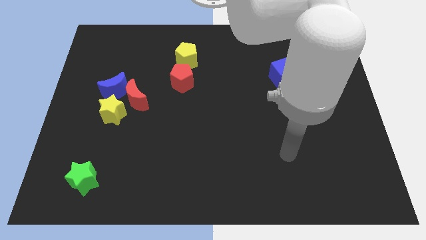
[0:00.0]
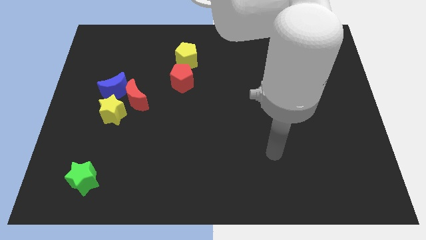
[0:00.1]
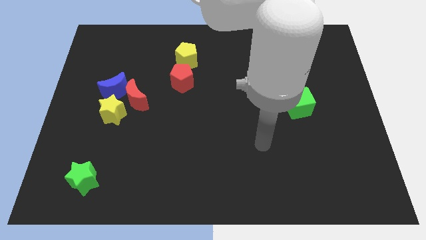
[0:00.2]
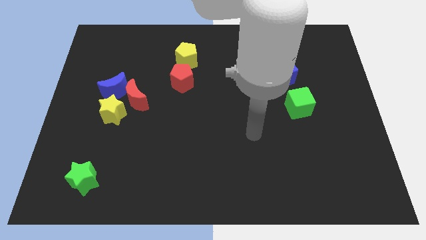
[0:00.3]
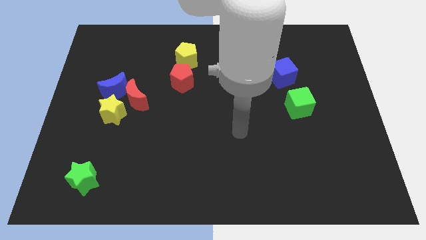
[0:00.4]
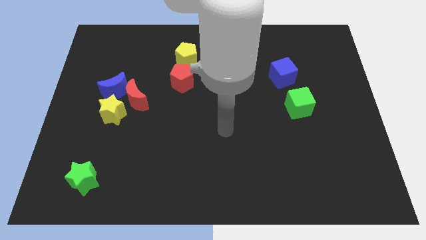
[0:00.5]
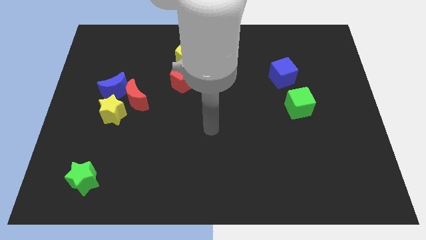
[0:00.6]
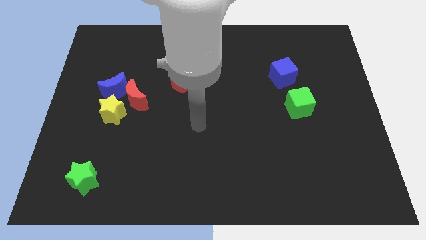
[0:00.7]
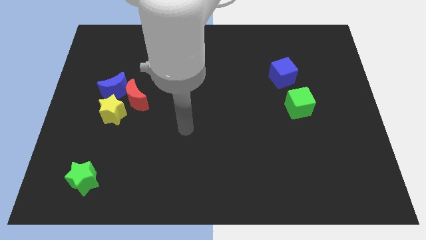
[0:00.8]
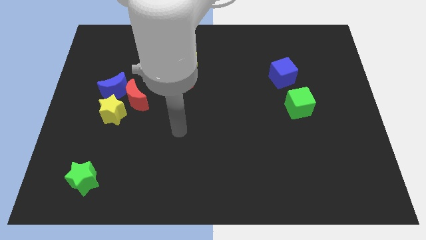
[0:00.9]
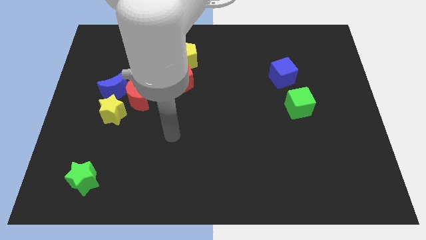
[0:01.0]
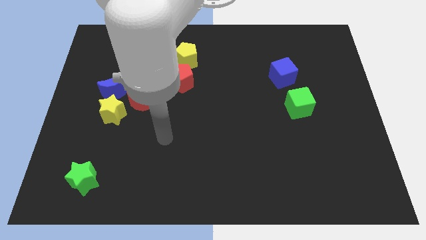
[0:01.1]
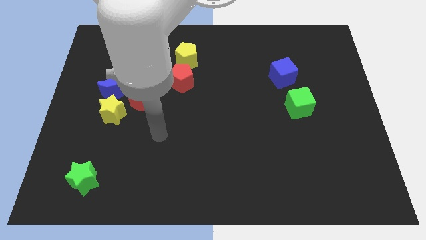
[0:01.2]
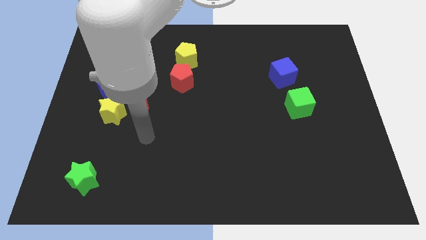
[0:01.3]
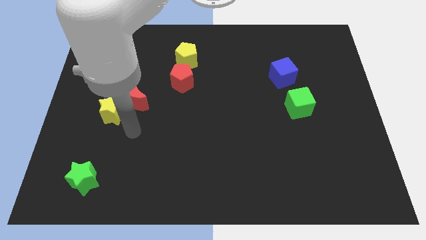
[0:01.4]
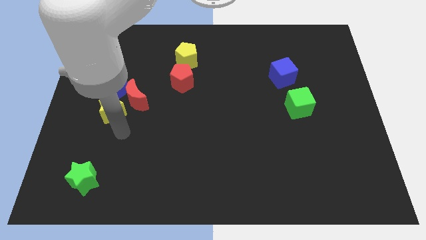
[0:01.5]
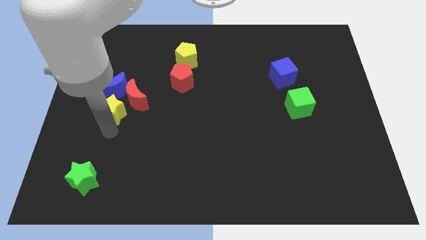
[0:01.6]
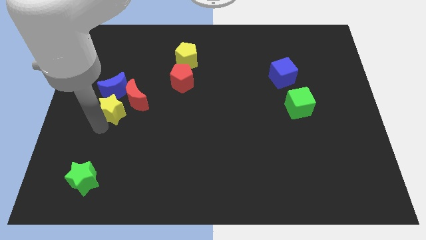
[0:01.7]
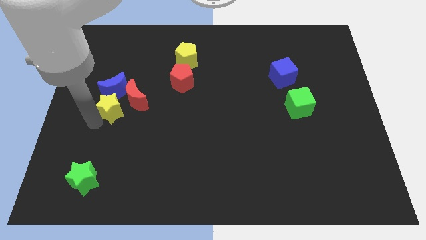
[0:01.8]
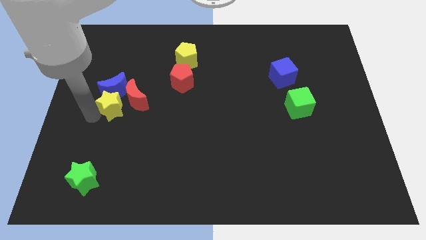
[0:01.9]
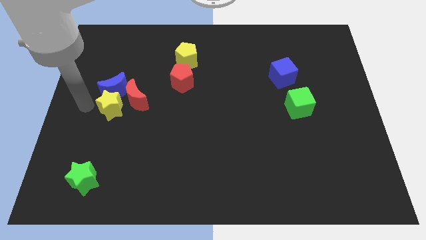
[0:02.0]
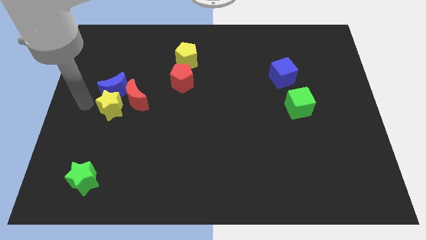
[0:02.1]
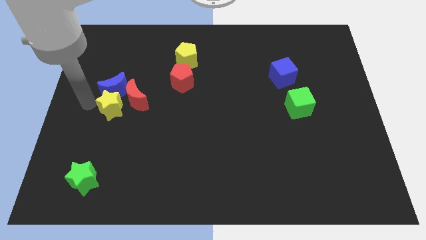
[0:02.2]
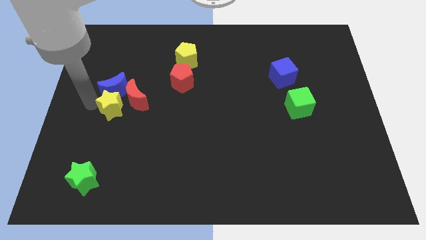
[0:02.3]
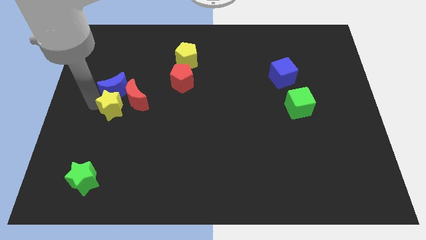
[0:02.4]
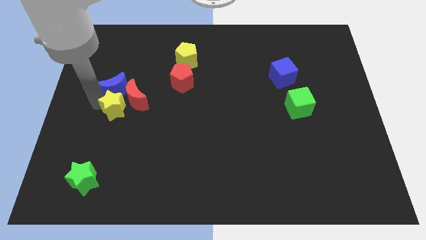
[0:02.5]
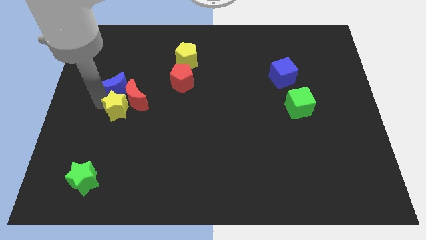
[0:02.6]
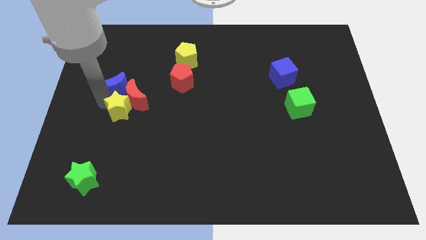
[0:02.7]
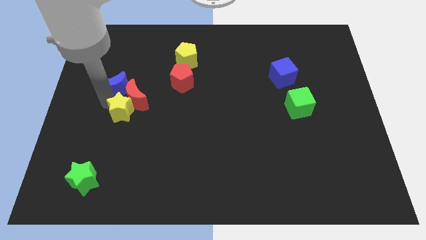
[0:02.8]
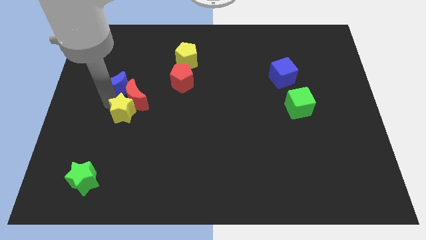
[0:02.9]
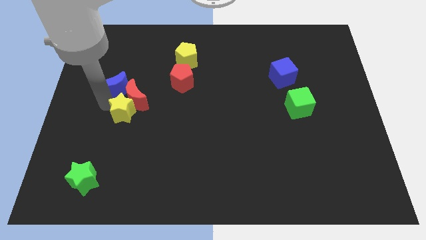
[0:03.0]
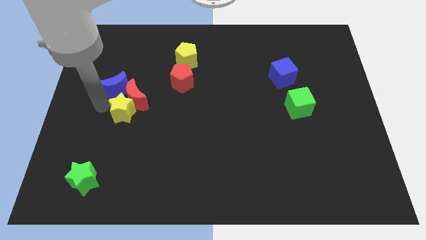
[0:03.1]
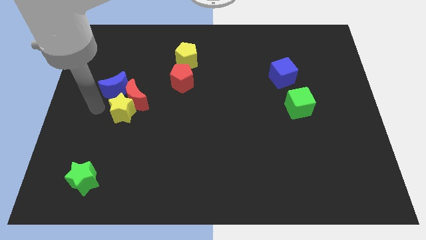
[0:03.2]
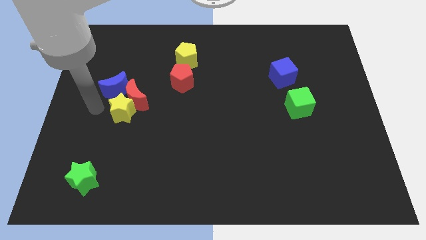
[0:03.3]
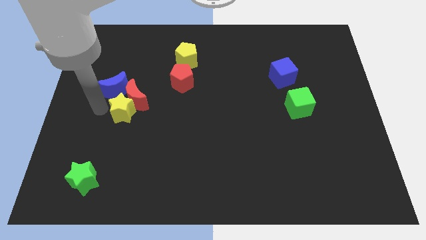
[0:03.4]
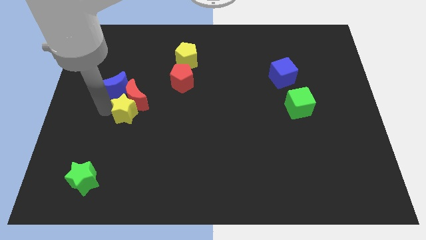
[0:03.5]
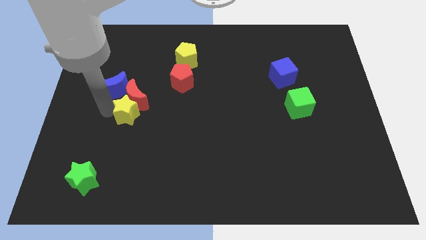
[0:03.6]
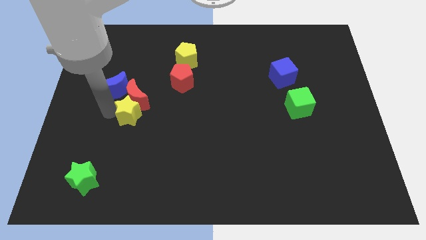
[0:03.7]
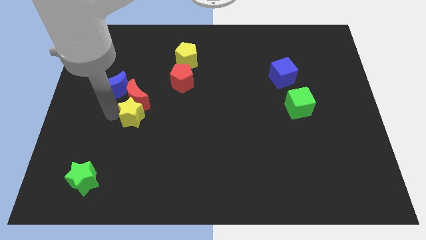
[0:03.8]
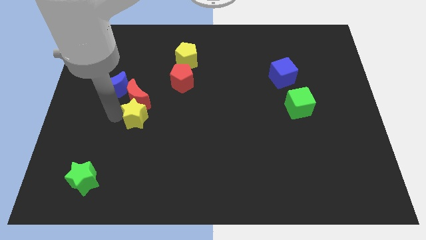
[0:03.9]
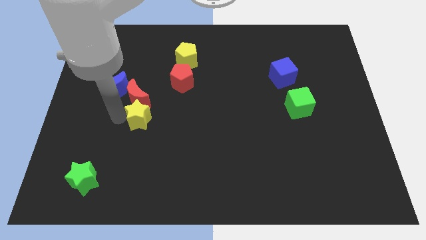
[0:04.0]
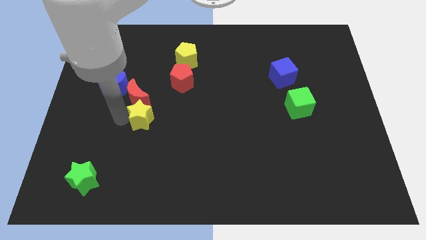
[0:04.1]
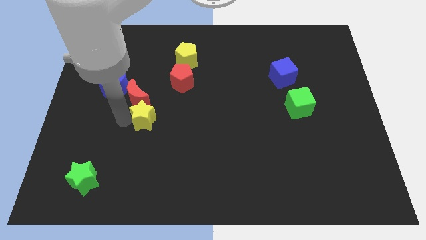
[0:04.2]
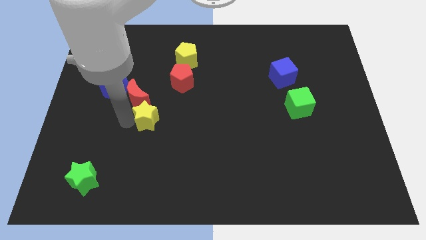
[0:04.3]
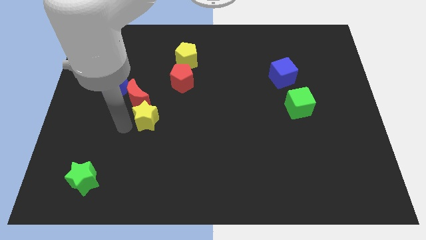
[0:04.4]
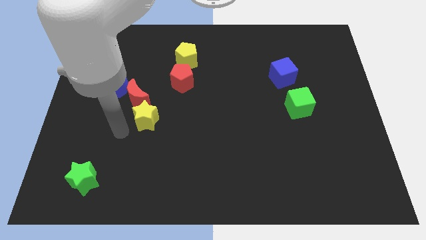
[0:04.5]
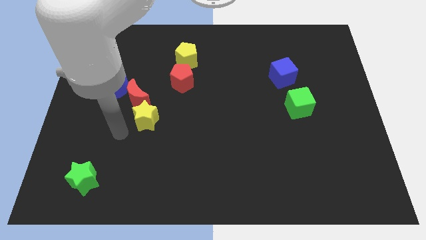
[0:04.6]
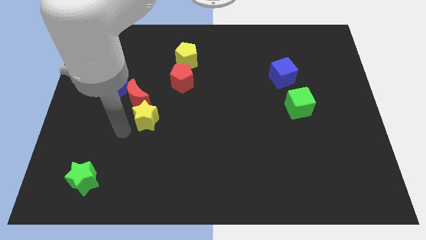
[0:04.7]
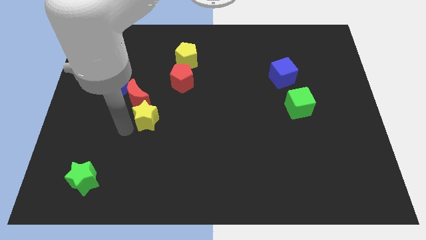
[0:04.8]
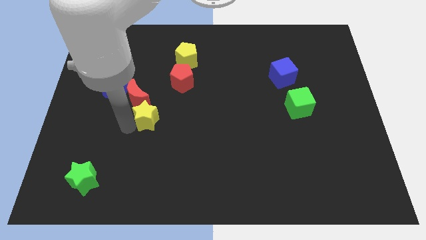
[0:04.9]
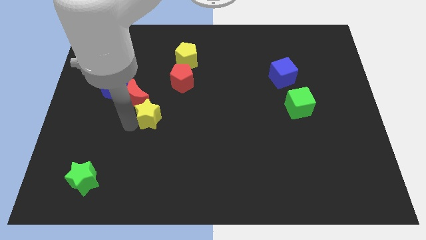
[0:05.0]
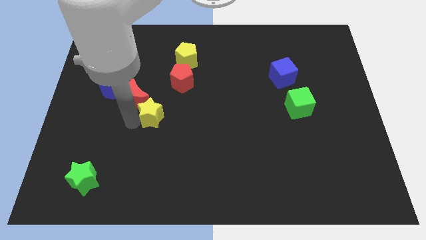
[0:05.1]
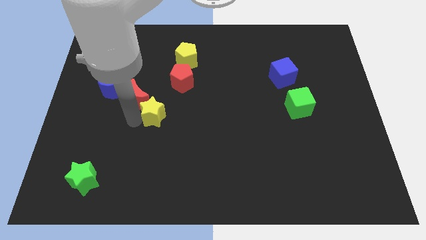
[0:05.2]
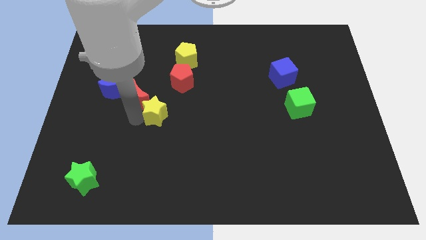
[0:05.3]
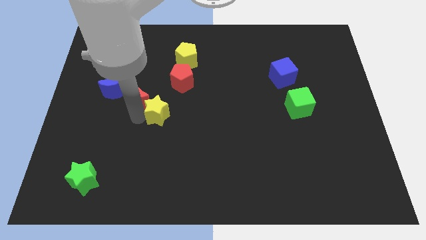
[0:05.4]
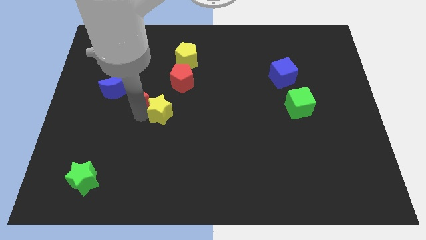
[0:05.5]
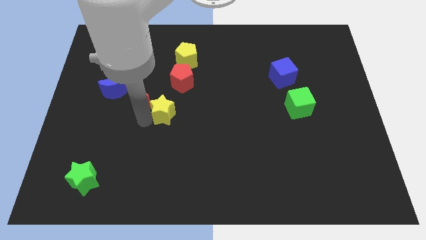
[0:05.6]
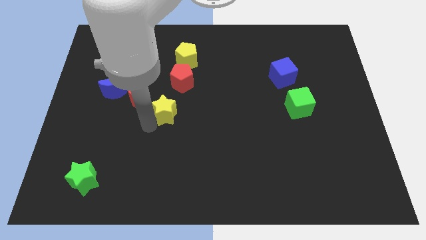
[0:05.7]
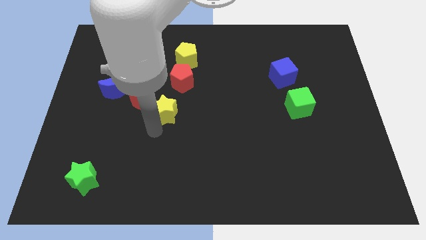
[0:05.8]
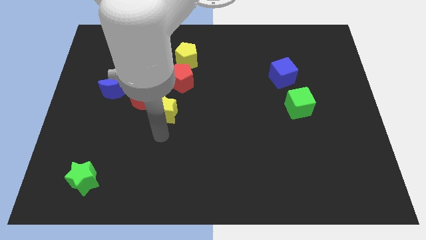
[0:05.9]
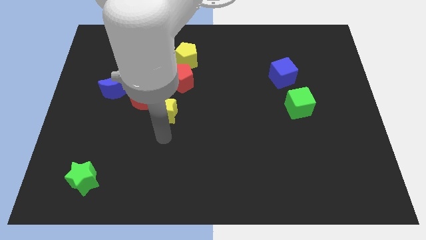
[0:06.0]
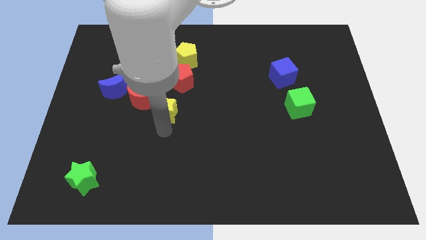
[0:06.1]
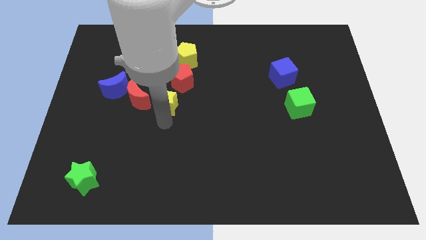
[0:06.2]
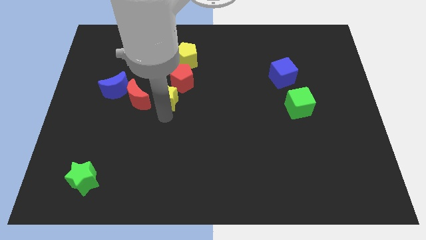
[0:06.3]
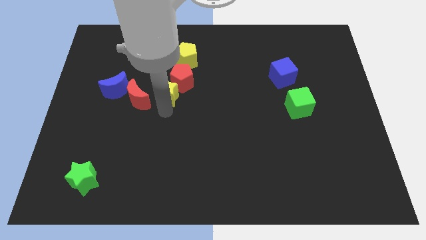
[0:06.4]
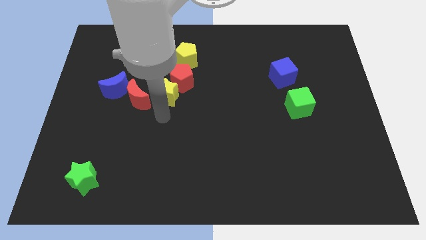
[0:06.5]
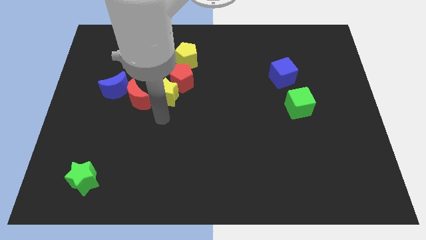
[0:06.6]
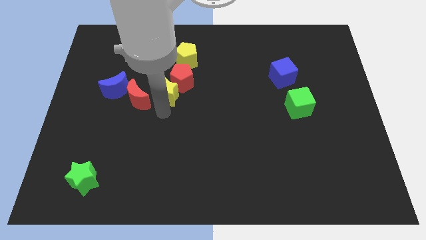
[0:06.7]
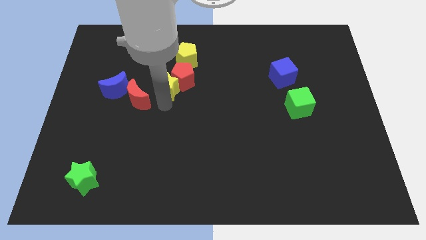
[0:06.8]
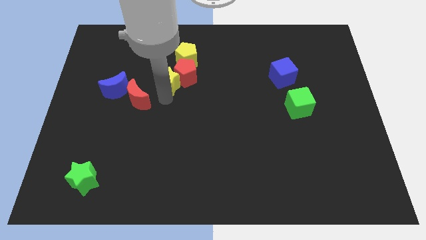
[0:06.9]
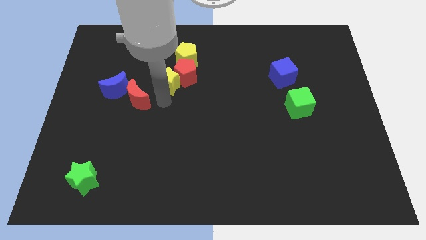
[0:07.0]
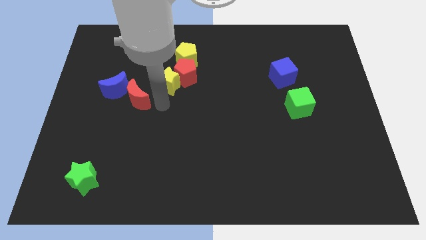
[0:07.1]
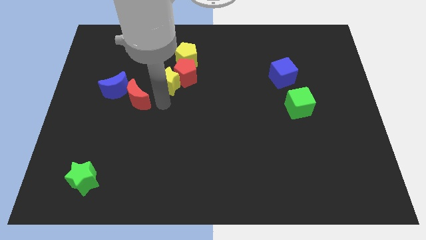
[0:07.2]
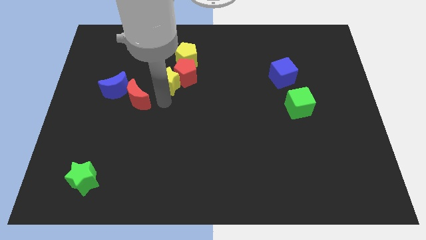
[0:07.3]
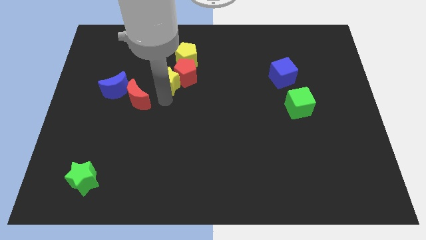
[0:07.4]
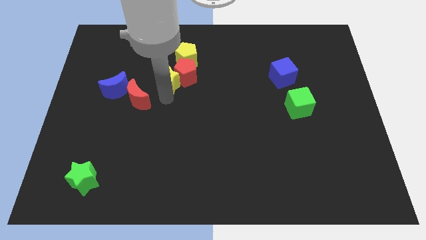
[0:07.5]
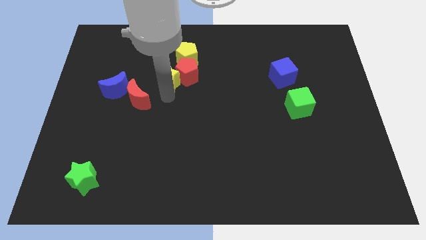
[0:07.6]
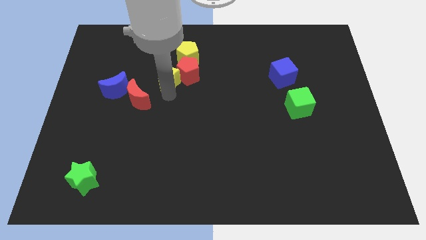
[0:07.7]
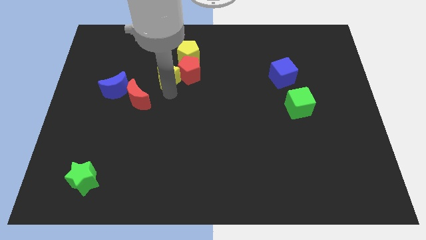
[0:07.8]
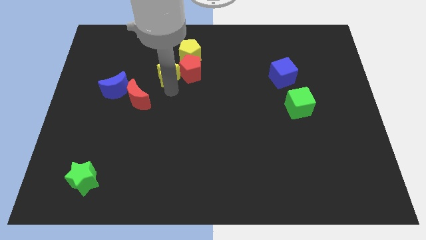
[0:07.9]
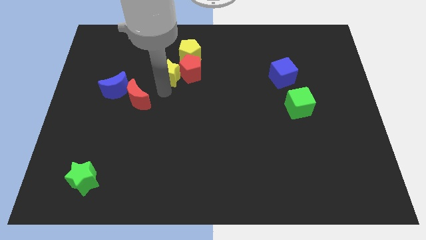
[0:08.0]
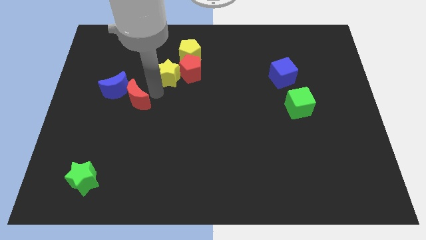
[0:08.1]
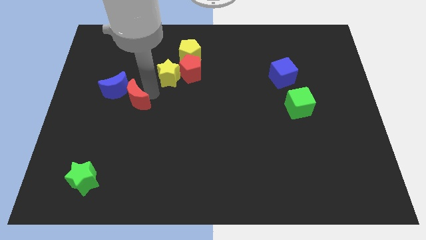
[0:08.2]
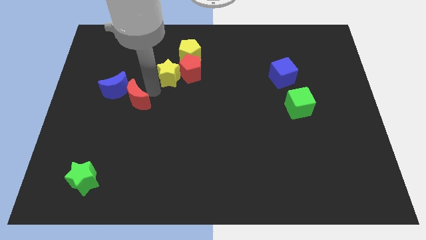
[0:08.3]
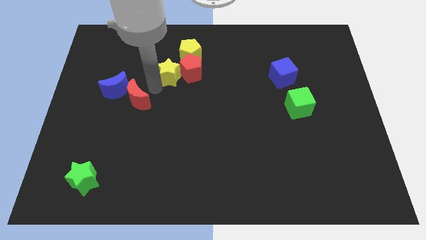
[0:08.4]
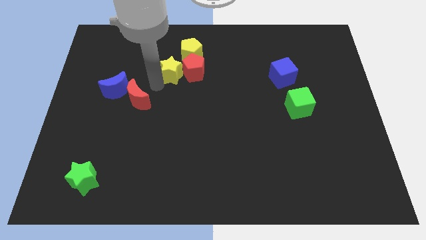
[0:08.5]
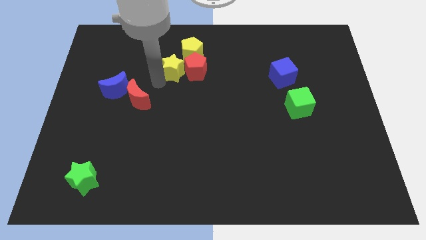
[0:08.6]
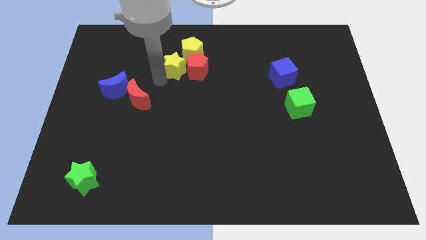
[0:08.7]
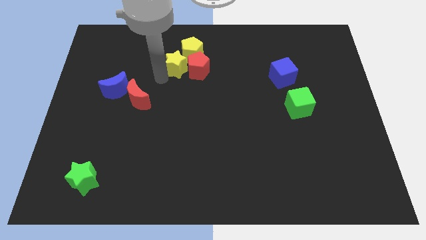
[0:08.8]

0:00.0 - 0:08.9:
move the yellow star to the yellow pentagon
